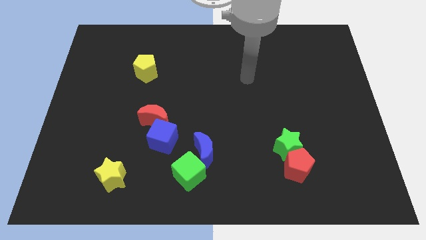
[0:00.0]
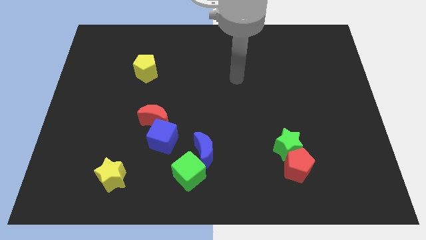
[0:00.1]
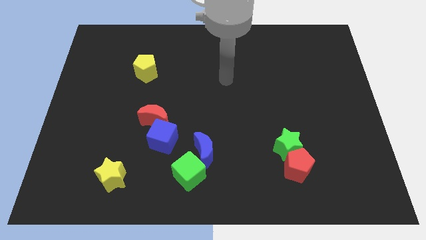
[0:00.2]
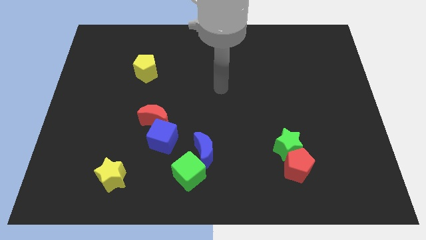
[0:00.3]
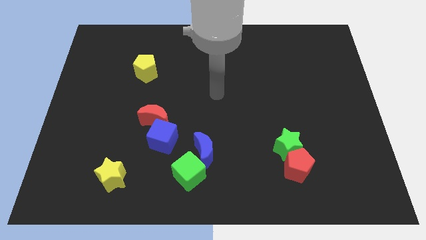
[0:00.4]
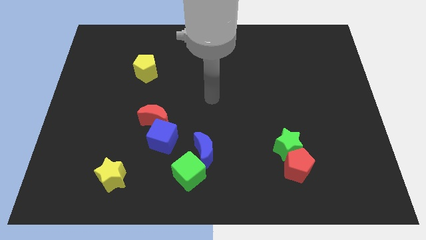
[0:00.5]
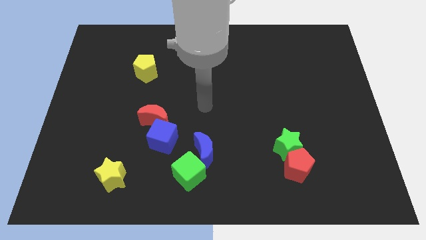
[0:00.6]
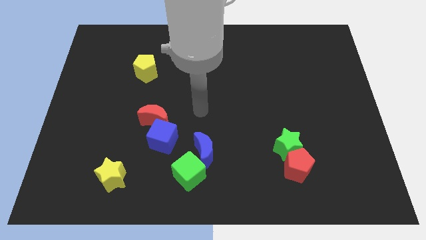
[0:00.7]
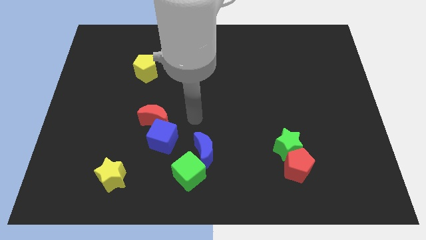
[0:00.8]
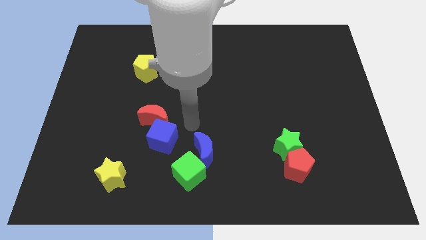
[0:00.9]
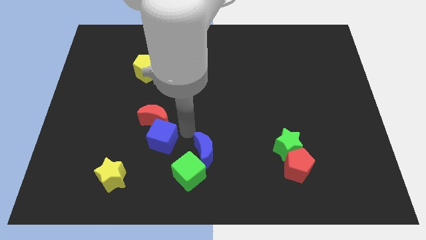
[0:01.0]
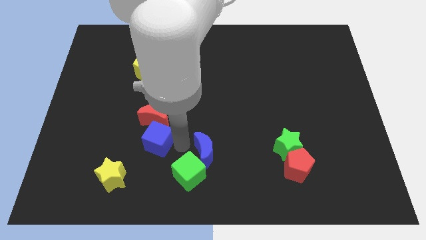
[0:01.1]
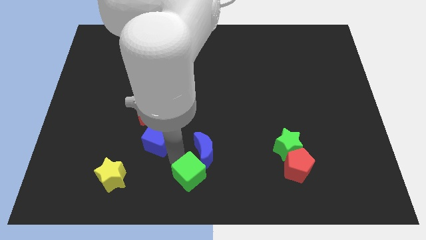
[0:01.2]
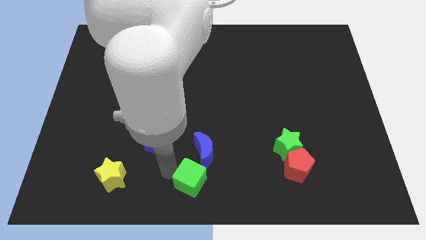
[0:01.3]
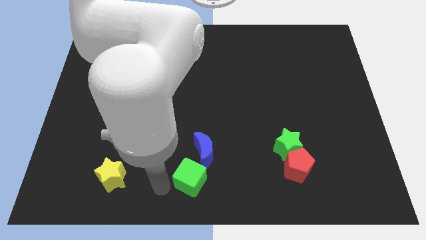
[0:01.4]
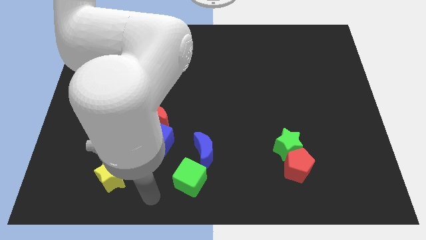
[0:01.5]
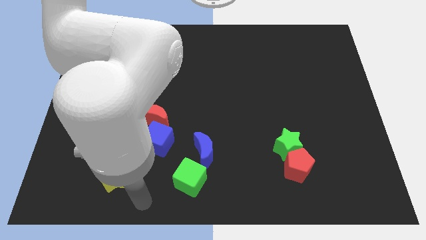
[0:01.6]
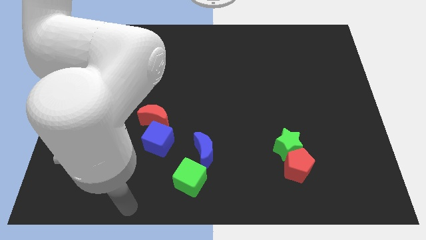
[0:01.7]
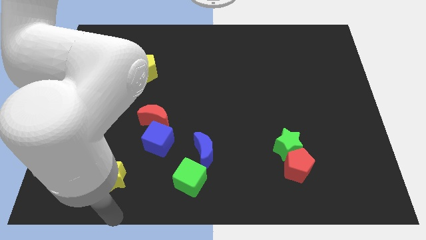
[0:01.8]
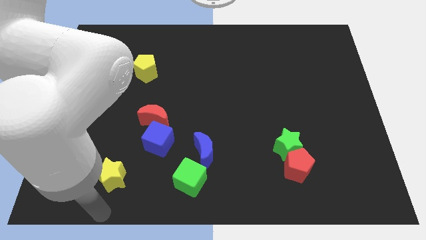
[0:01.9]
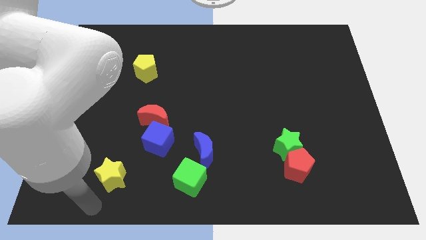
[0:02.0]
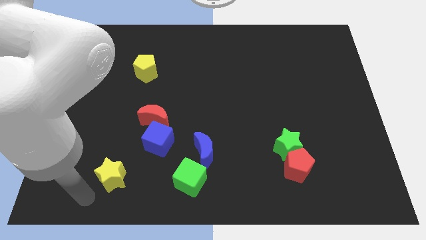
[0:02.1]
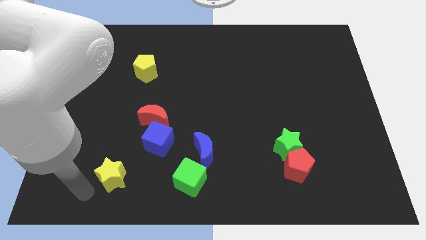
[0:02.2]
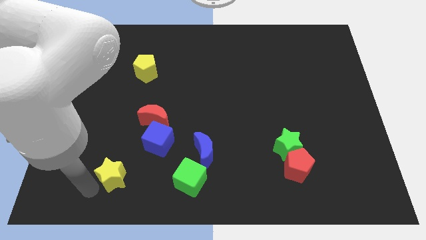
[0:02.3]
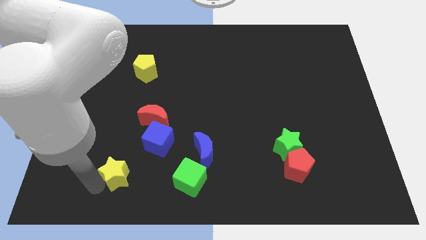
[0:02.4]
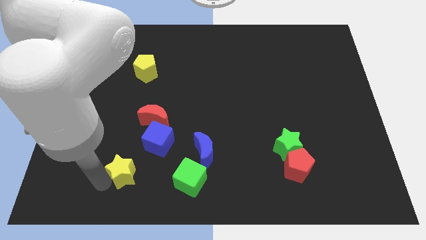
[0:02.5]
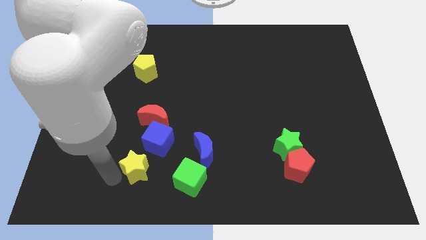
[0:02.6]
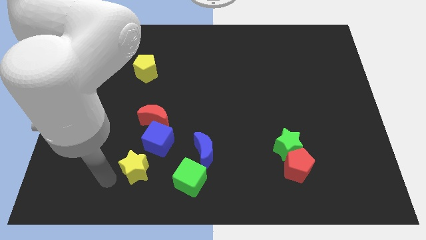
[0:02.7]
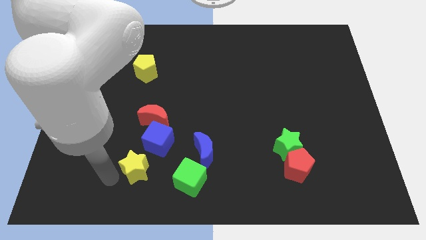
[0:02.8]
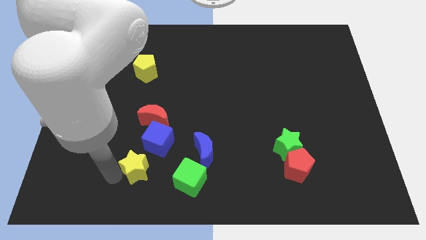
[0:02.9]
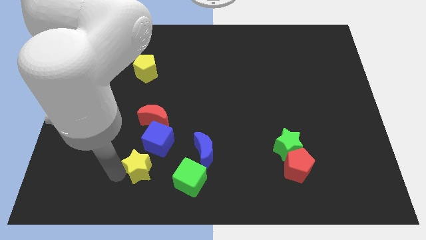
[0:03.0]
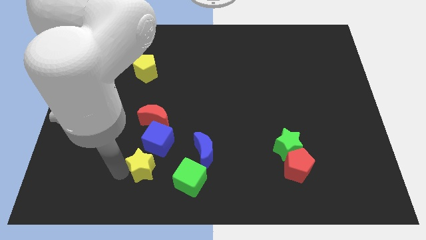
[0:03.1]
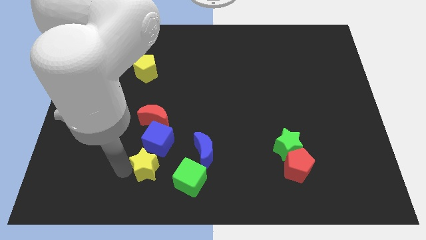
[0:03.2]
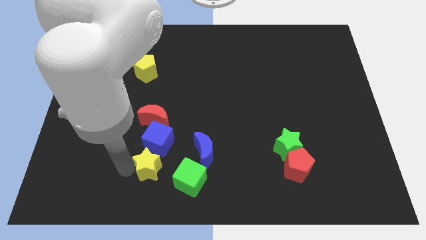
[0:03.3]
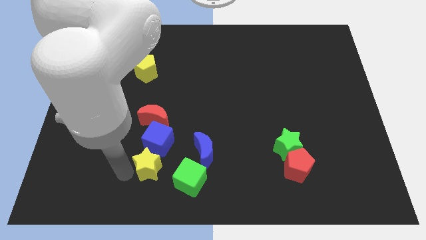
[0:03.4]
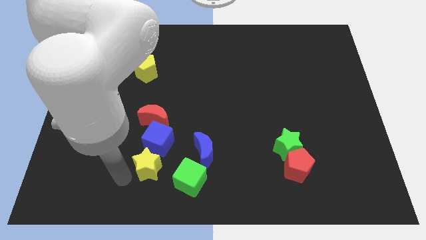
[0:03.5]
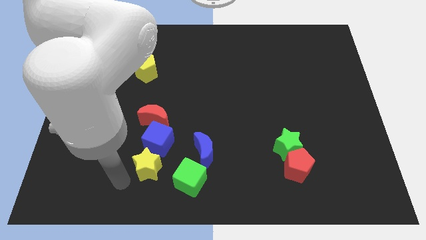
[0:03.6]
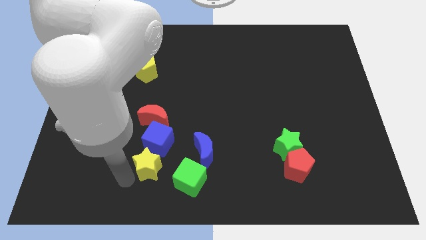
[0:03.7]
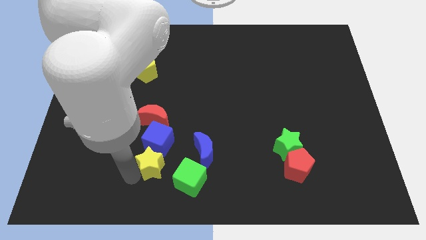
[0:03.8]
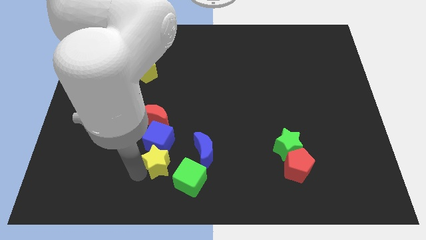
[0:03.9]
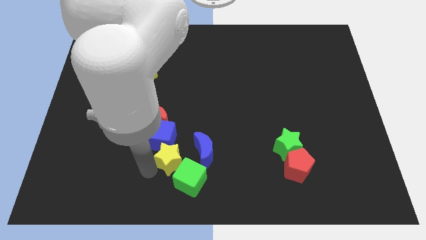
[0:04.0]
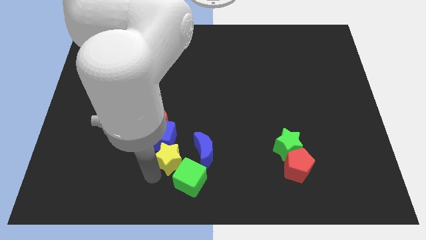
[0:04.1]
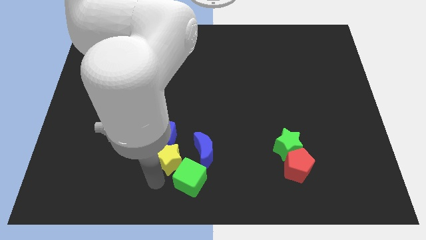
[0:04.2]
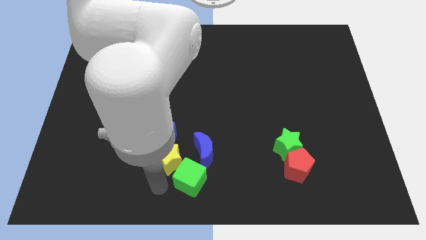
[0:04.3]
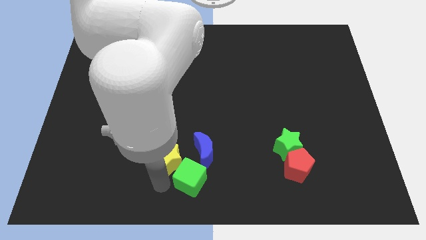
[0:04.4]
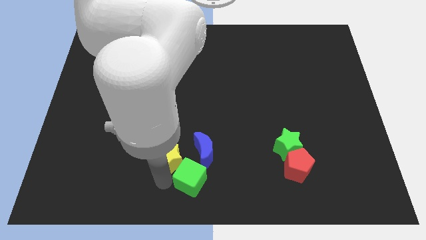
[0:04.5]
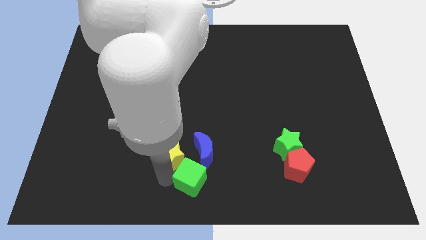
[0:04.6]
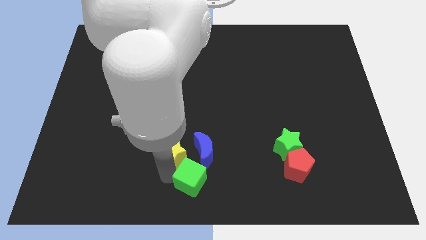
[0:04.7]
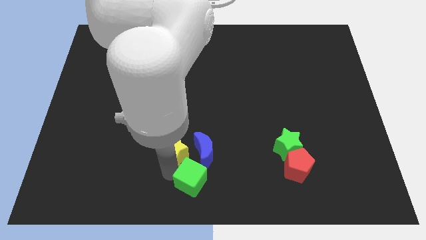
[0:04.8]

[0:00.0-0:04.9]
move the yellow star to the top left of the blue moon

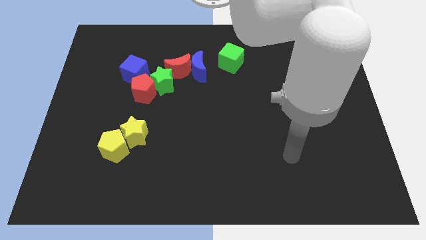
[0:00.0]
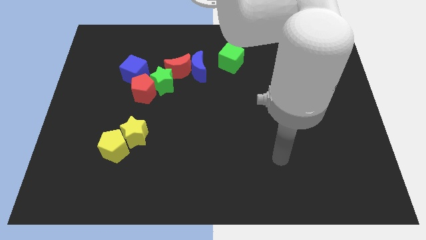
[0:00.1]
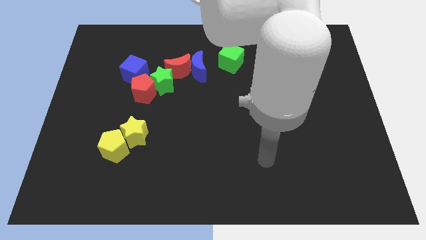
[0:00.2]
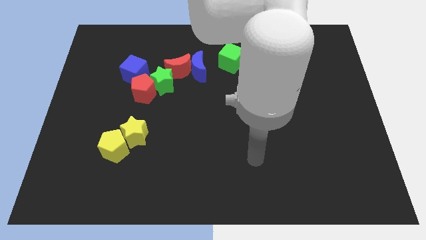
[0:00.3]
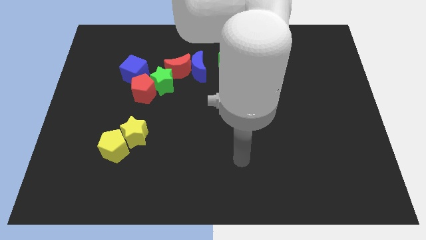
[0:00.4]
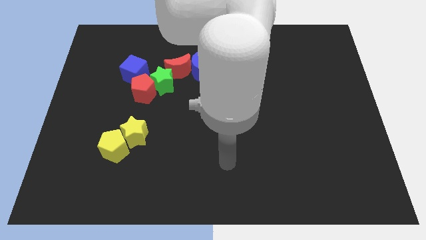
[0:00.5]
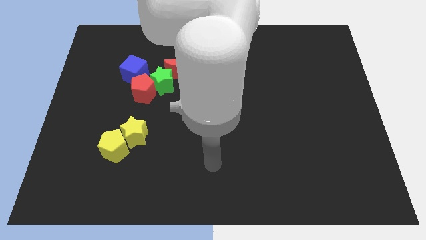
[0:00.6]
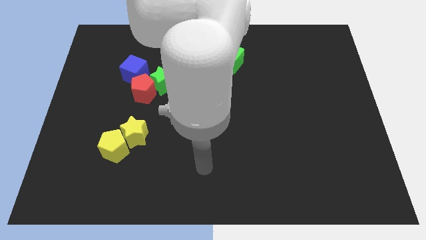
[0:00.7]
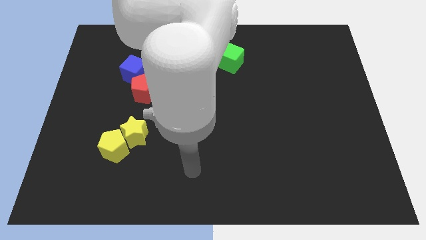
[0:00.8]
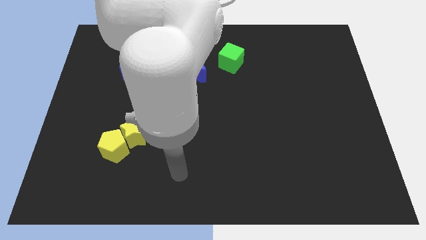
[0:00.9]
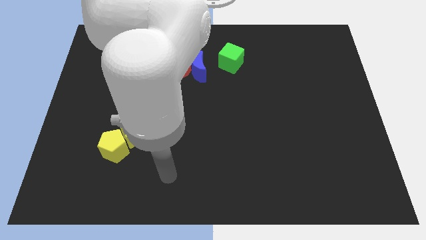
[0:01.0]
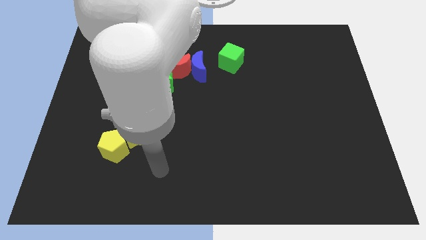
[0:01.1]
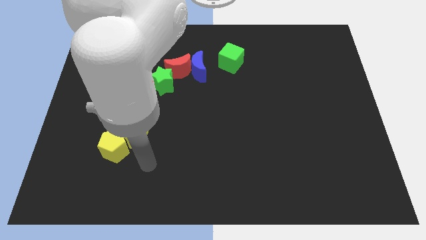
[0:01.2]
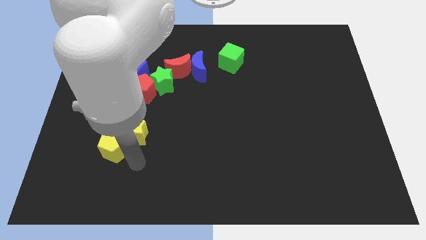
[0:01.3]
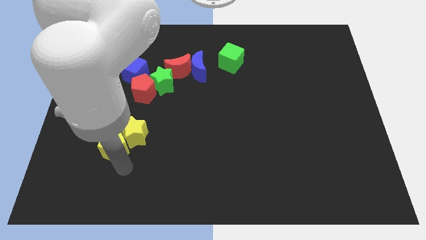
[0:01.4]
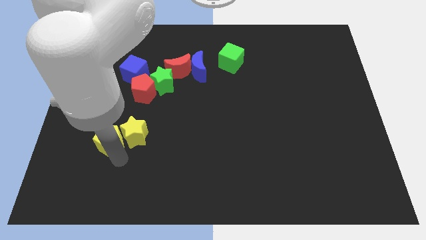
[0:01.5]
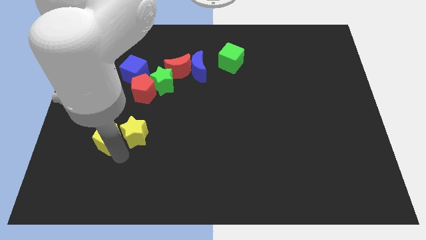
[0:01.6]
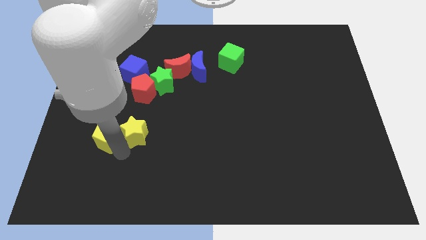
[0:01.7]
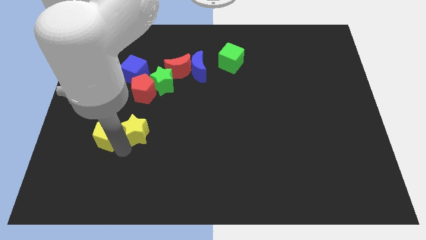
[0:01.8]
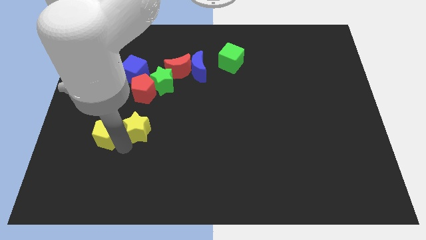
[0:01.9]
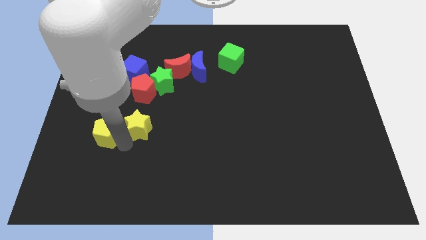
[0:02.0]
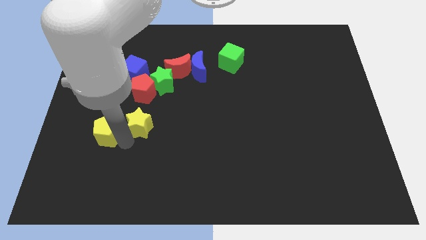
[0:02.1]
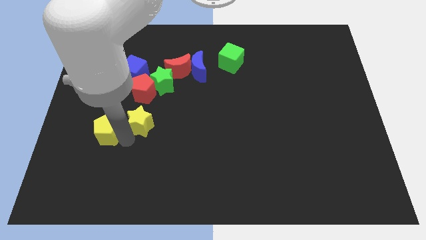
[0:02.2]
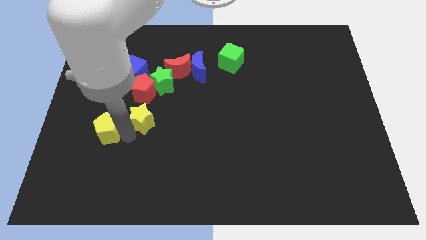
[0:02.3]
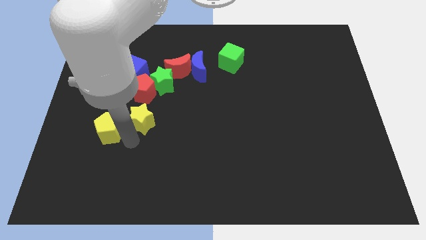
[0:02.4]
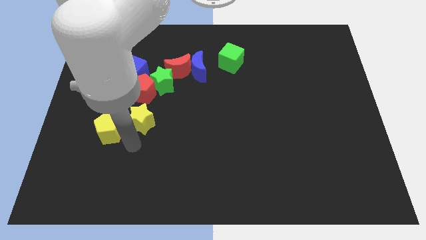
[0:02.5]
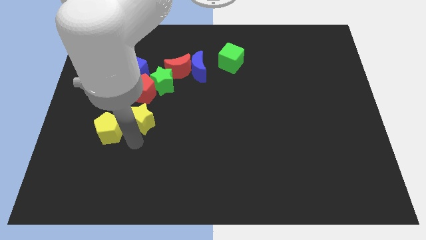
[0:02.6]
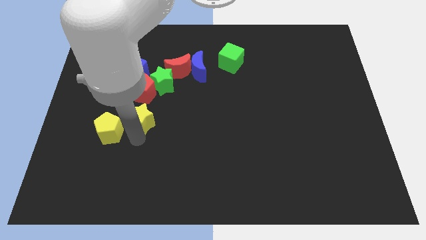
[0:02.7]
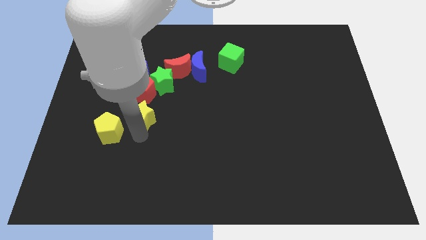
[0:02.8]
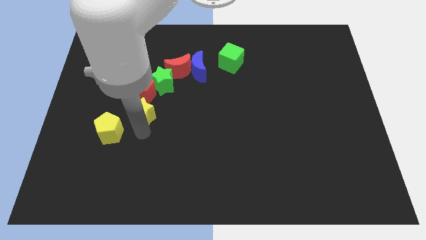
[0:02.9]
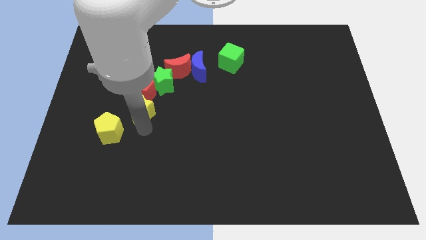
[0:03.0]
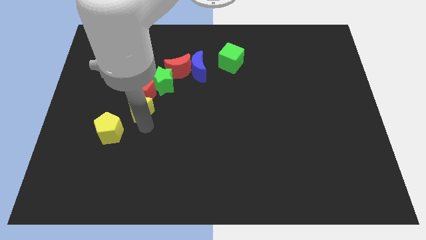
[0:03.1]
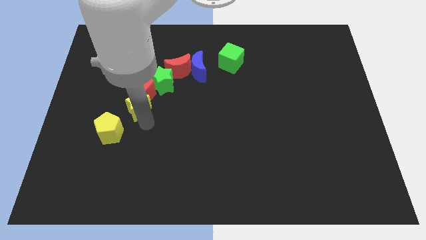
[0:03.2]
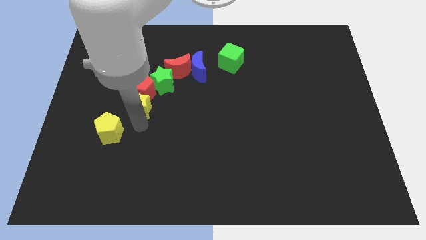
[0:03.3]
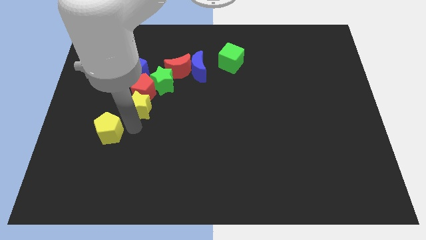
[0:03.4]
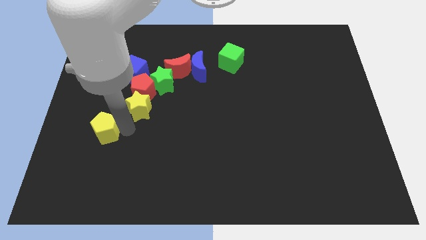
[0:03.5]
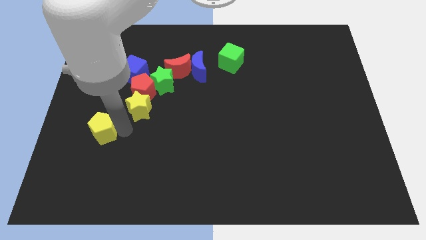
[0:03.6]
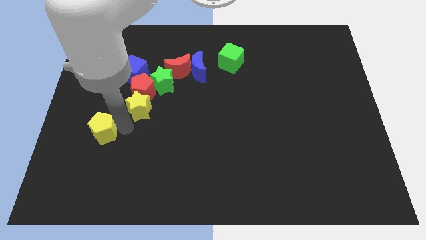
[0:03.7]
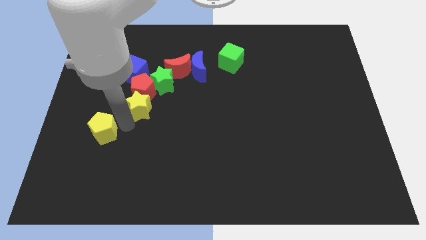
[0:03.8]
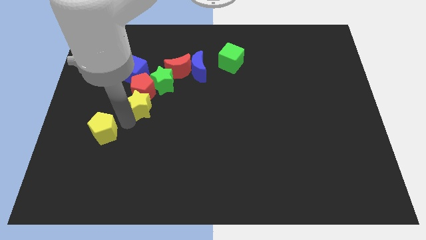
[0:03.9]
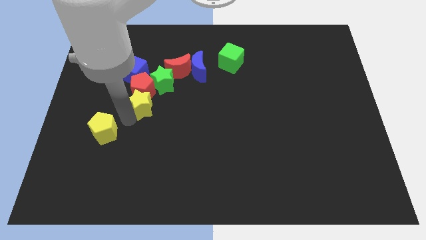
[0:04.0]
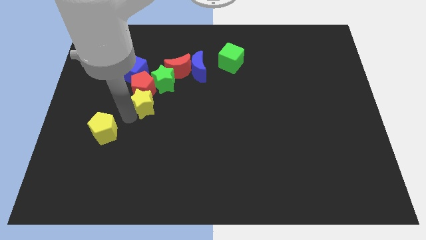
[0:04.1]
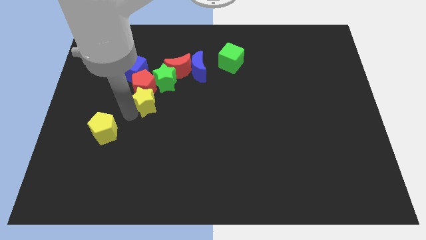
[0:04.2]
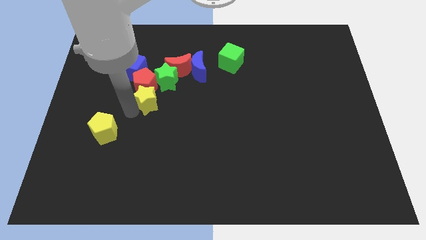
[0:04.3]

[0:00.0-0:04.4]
move the yellow star diagonally down and to the right of the blue cube
